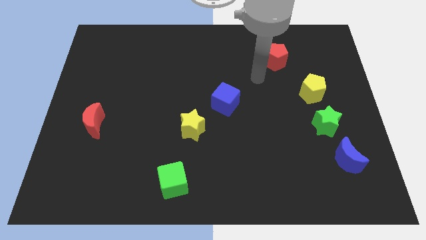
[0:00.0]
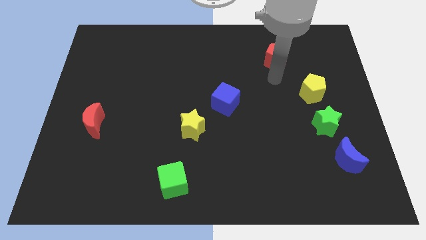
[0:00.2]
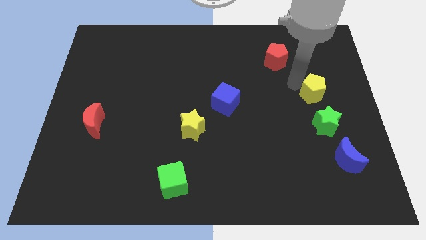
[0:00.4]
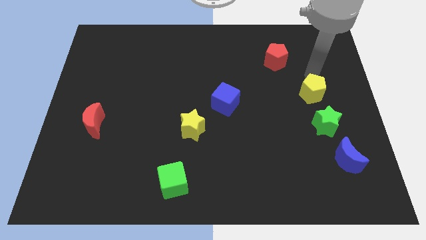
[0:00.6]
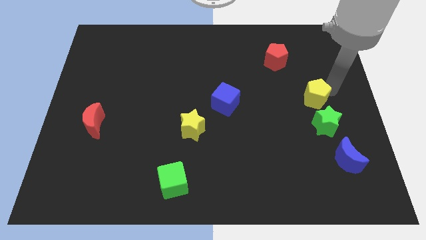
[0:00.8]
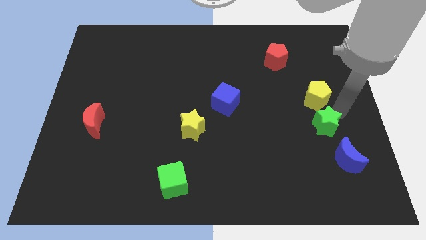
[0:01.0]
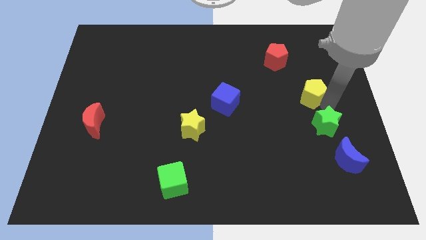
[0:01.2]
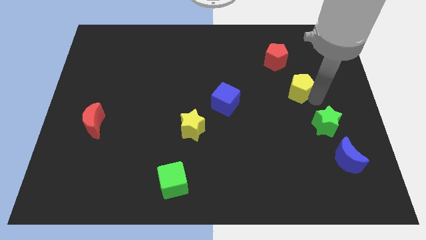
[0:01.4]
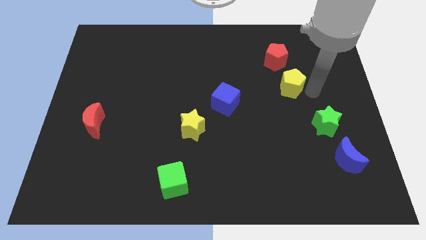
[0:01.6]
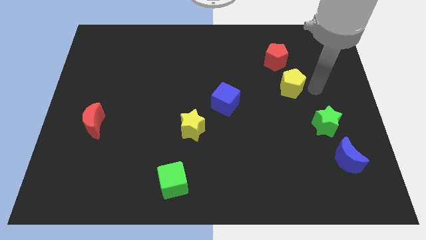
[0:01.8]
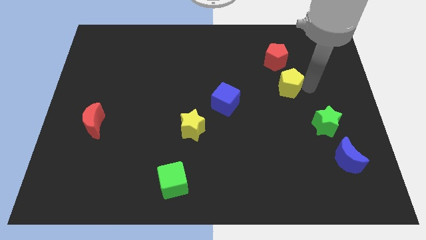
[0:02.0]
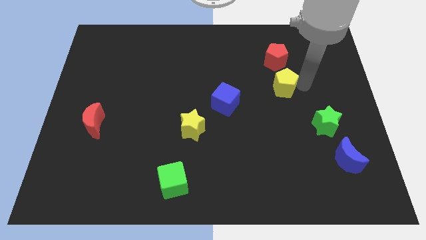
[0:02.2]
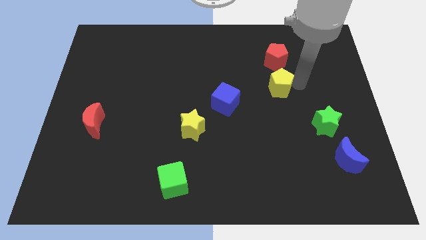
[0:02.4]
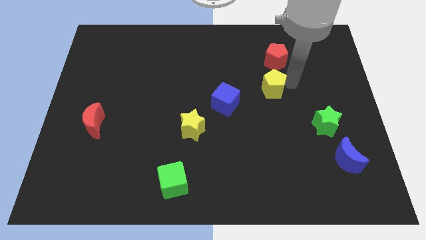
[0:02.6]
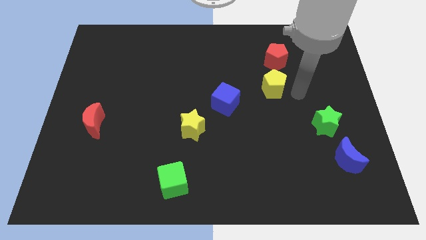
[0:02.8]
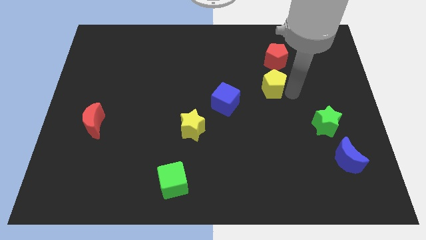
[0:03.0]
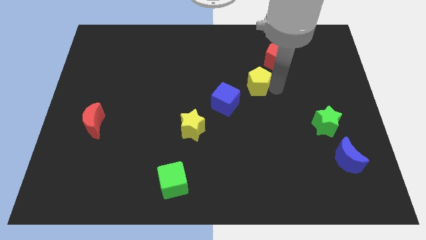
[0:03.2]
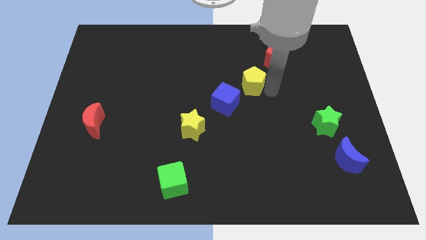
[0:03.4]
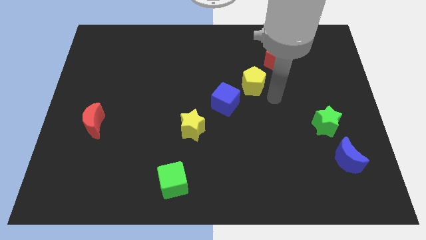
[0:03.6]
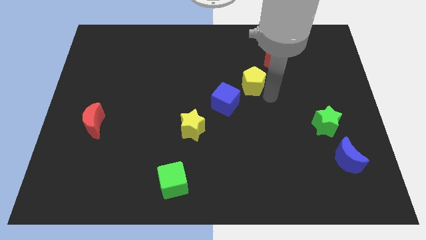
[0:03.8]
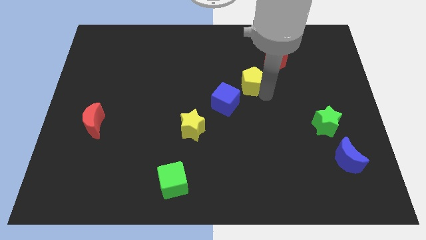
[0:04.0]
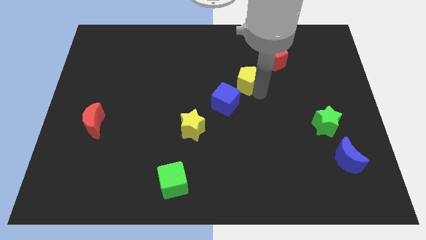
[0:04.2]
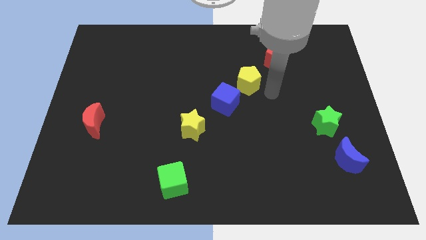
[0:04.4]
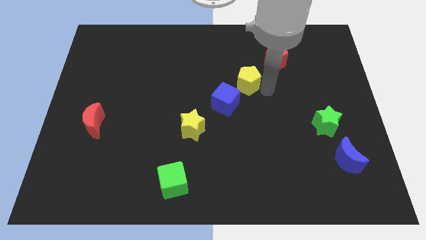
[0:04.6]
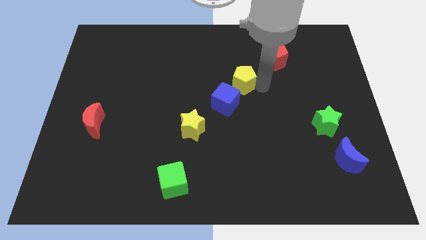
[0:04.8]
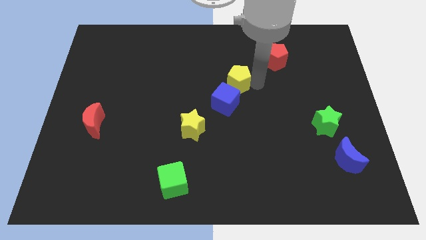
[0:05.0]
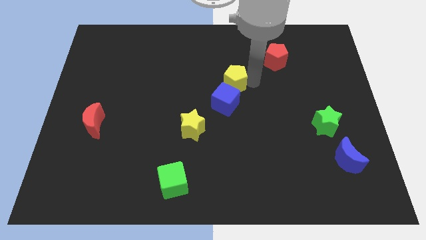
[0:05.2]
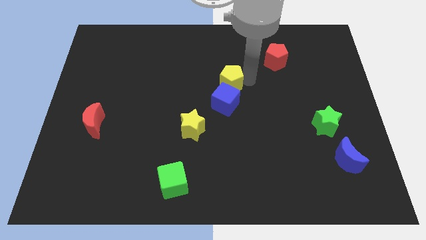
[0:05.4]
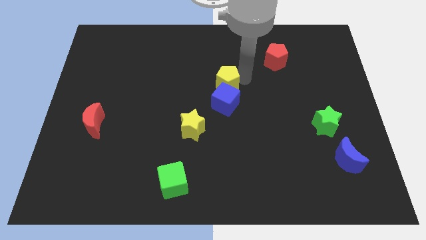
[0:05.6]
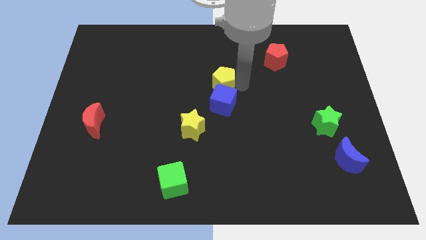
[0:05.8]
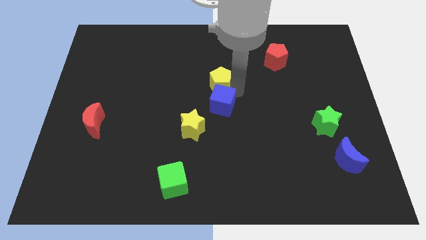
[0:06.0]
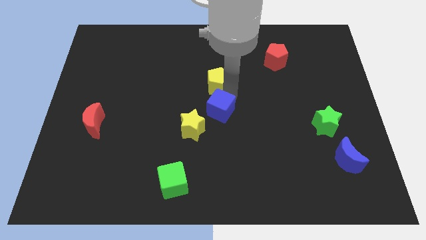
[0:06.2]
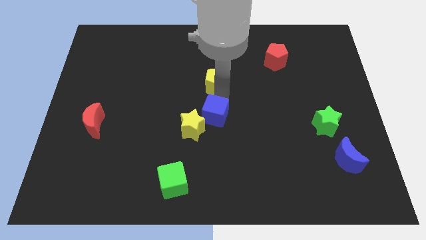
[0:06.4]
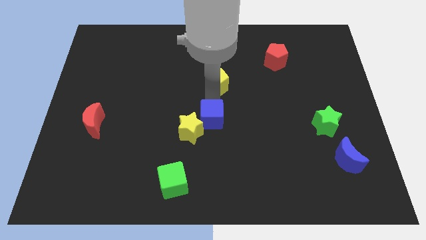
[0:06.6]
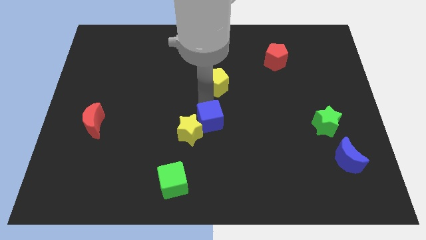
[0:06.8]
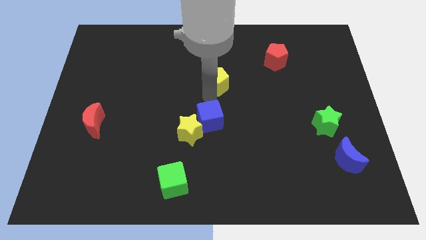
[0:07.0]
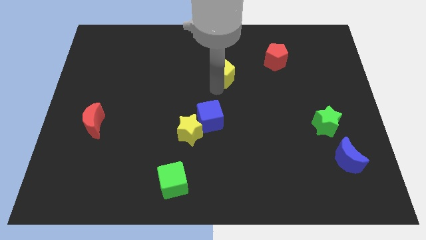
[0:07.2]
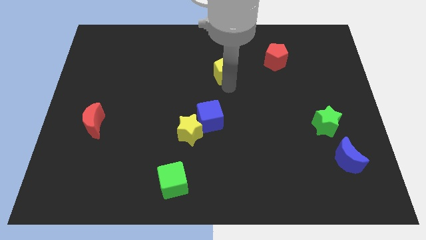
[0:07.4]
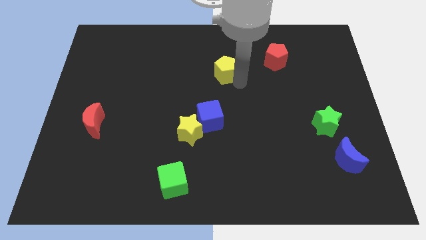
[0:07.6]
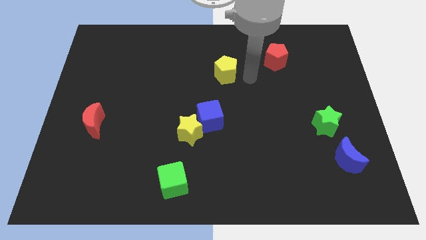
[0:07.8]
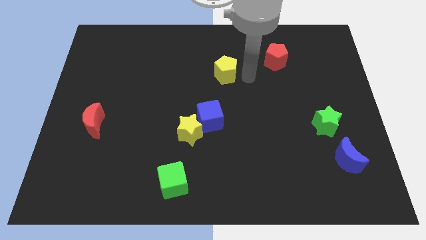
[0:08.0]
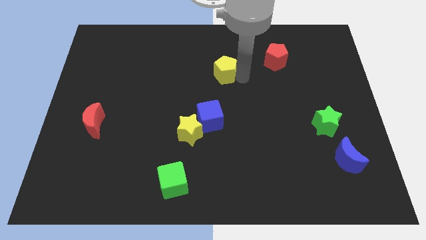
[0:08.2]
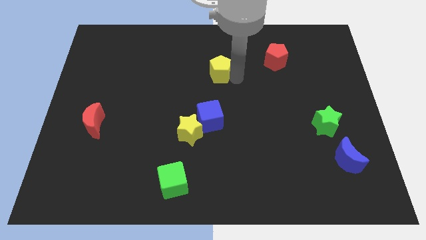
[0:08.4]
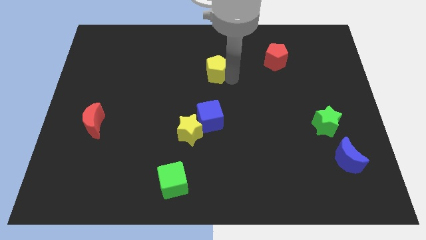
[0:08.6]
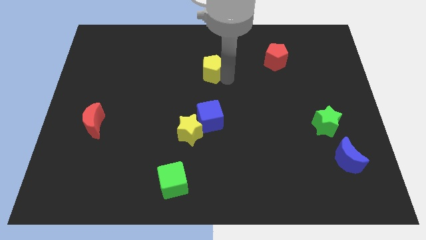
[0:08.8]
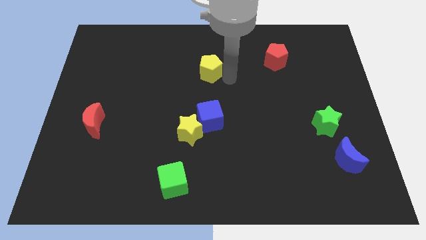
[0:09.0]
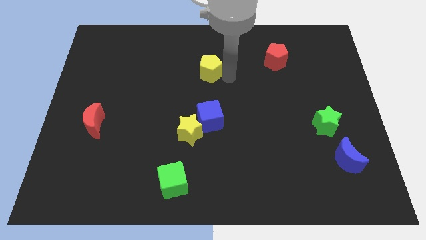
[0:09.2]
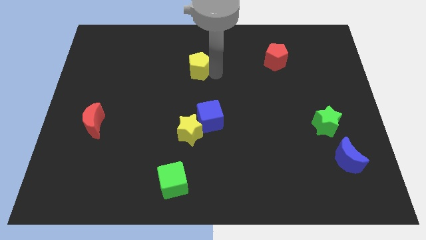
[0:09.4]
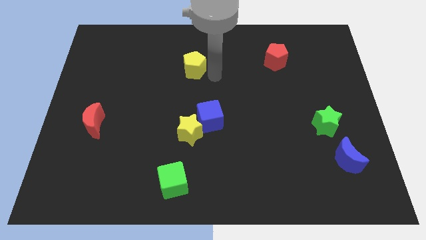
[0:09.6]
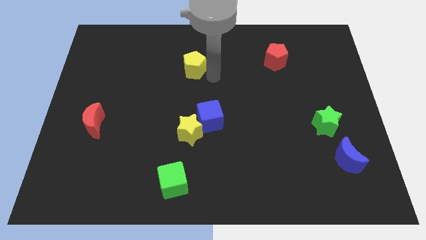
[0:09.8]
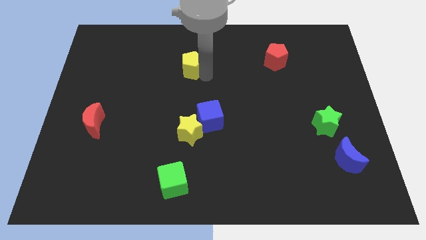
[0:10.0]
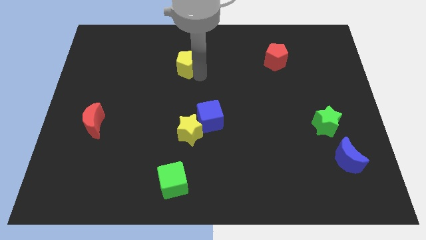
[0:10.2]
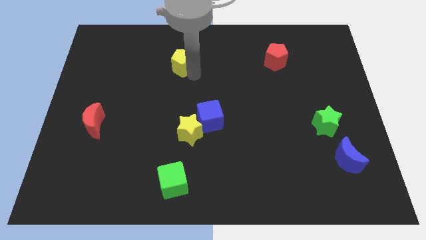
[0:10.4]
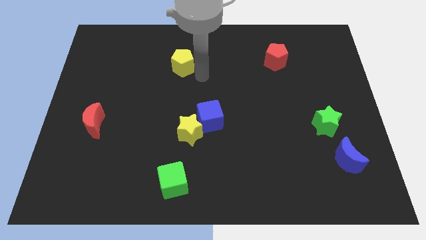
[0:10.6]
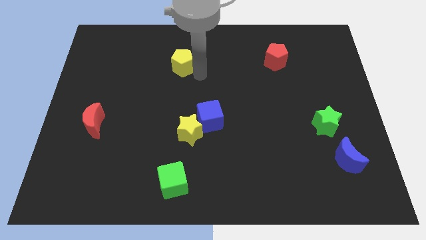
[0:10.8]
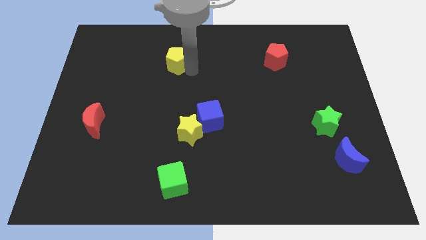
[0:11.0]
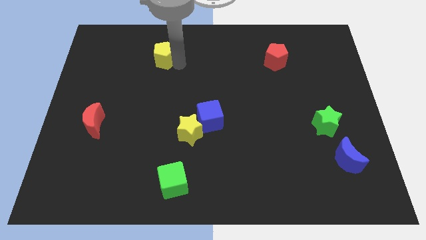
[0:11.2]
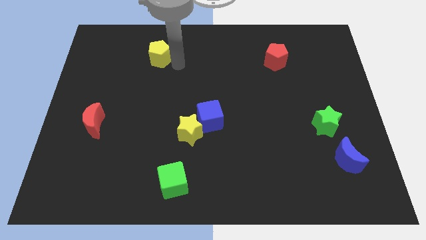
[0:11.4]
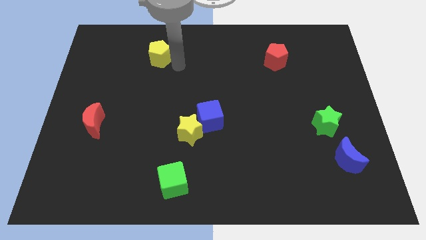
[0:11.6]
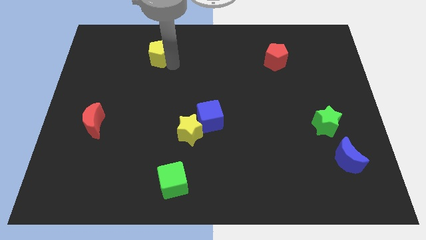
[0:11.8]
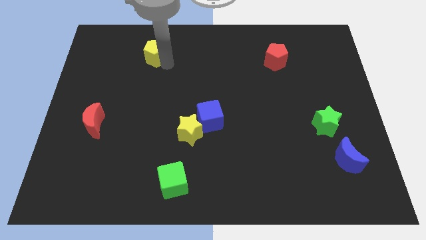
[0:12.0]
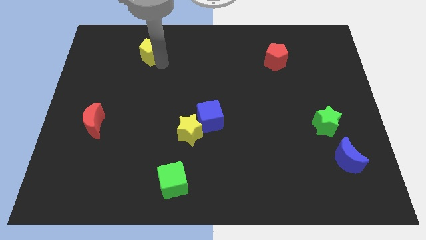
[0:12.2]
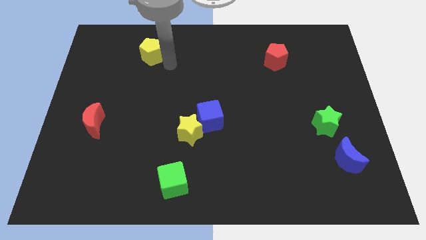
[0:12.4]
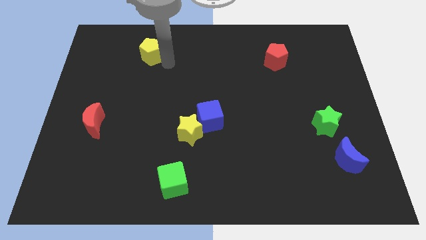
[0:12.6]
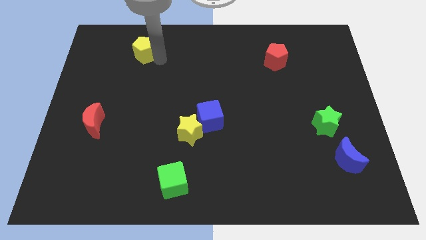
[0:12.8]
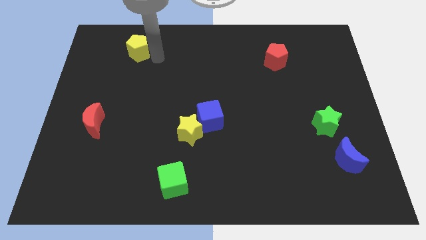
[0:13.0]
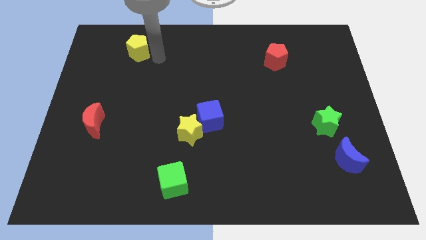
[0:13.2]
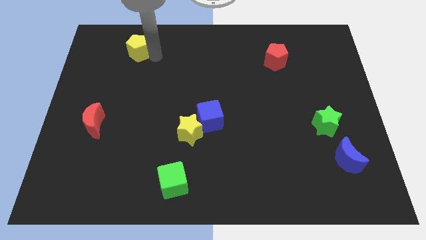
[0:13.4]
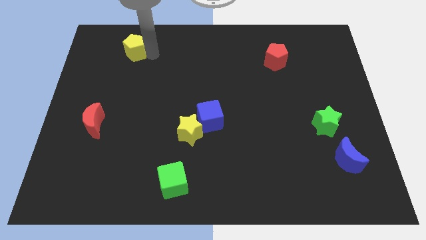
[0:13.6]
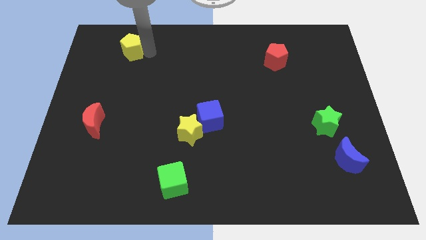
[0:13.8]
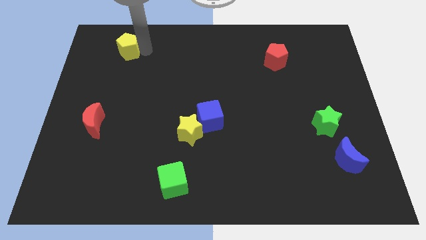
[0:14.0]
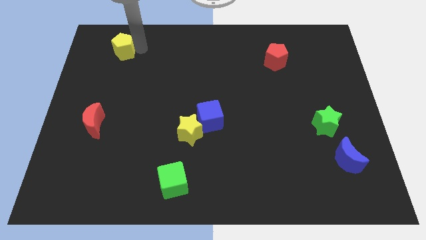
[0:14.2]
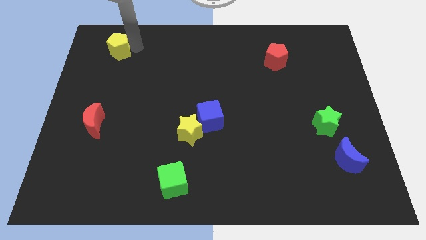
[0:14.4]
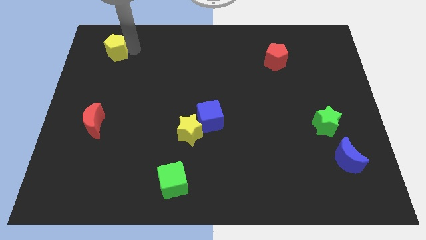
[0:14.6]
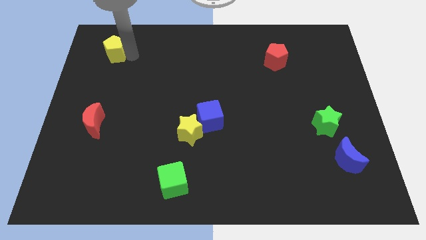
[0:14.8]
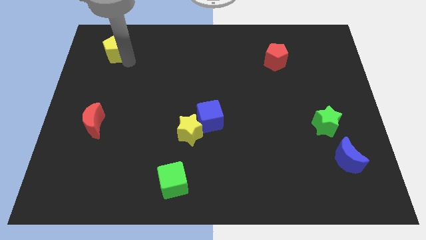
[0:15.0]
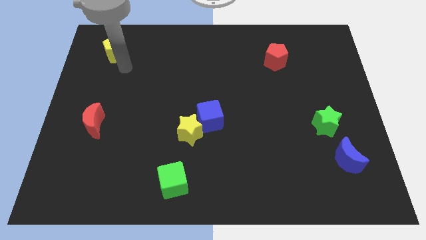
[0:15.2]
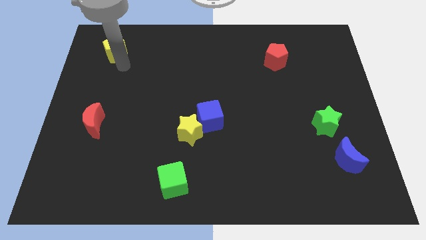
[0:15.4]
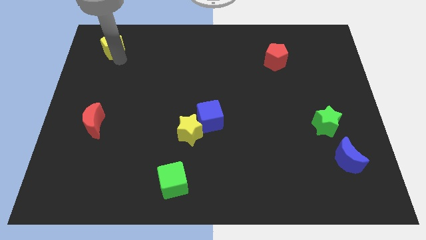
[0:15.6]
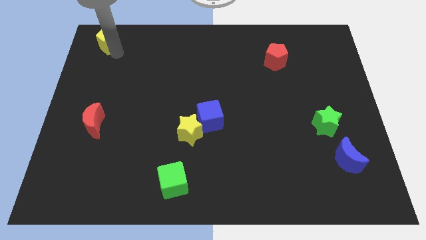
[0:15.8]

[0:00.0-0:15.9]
slide the yellow pentagon to the upper left corner
